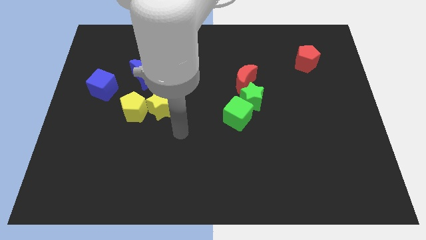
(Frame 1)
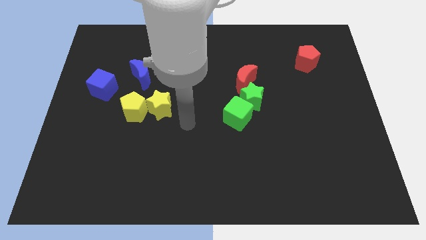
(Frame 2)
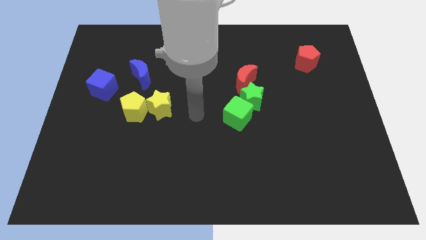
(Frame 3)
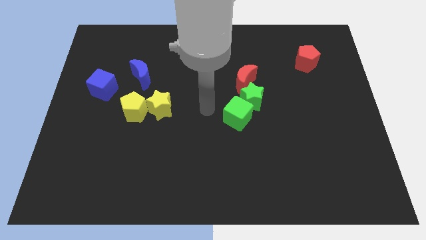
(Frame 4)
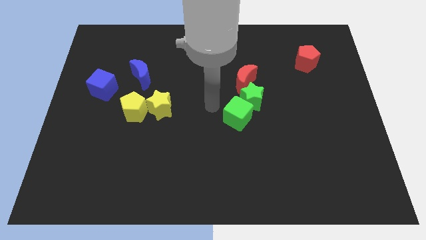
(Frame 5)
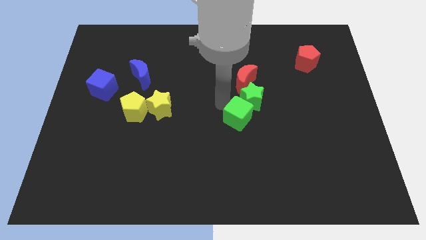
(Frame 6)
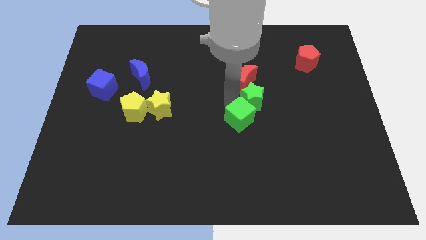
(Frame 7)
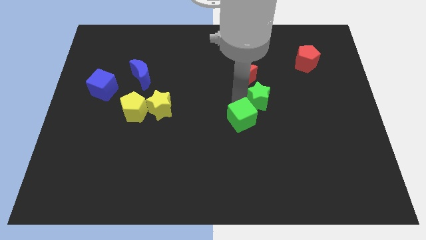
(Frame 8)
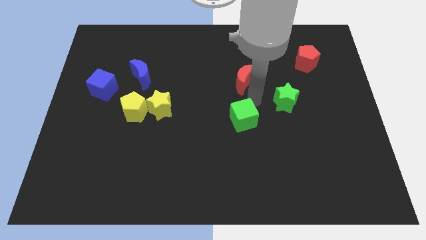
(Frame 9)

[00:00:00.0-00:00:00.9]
separate the green cube from the green star

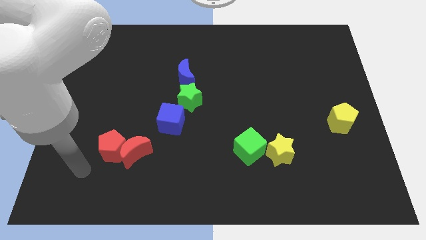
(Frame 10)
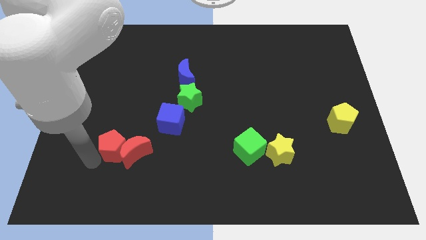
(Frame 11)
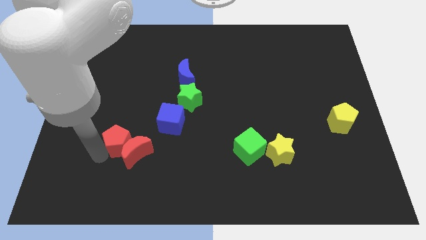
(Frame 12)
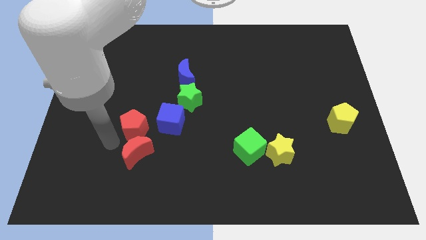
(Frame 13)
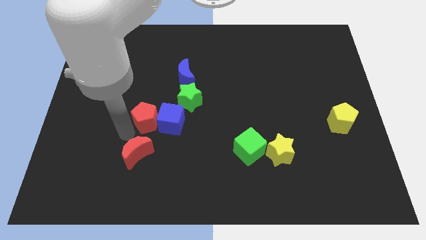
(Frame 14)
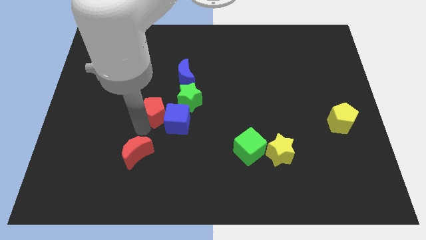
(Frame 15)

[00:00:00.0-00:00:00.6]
pull the red moon apart from the red pentagon

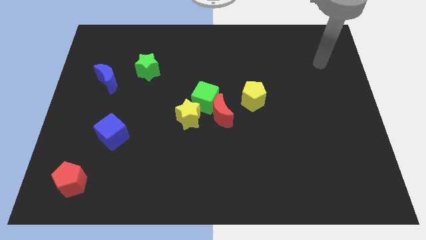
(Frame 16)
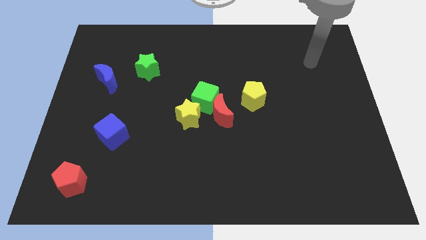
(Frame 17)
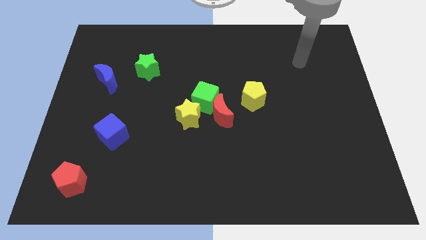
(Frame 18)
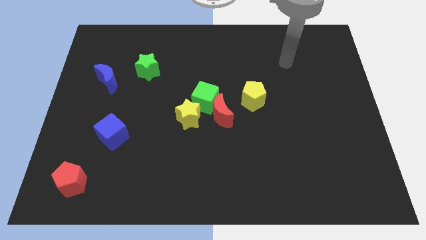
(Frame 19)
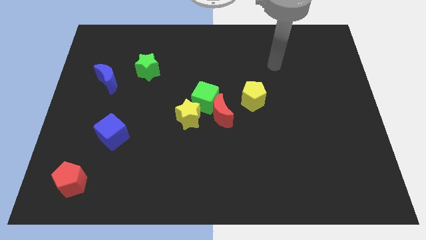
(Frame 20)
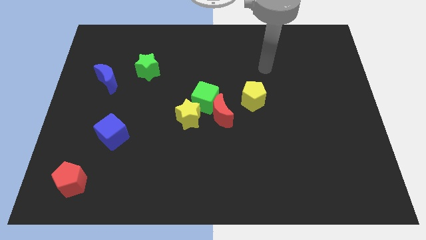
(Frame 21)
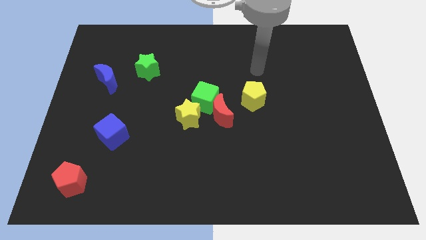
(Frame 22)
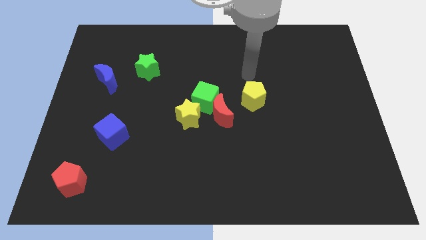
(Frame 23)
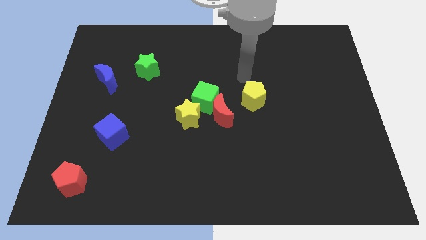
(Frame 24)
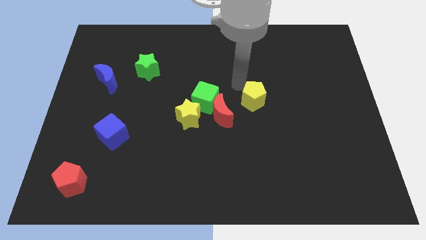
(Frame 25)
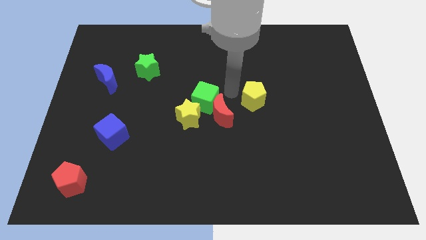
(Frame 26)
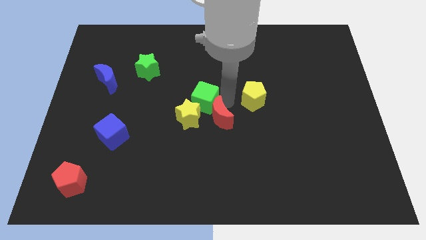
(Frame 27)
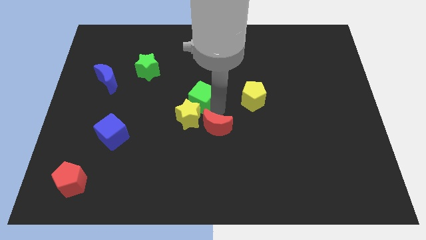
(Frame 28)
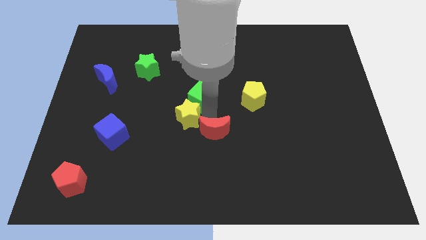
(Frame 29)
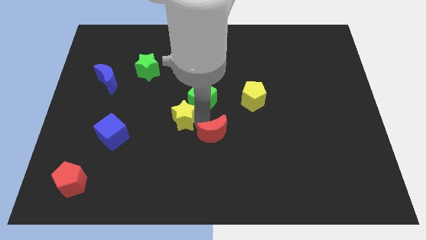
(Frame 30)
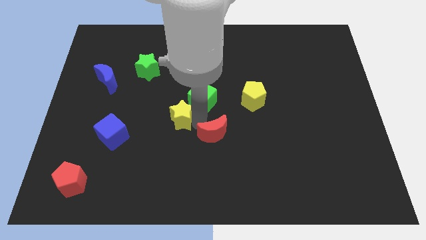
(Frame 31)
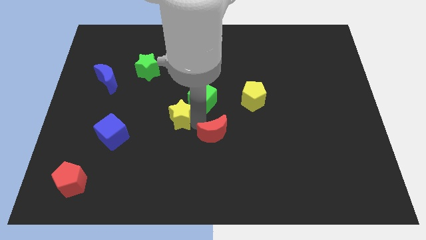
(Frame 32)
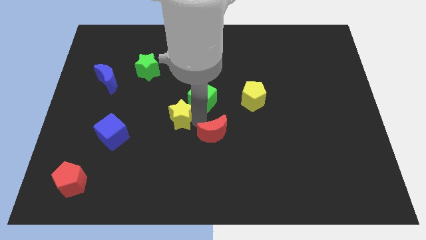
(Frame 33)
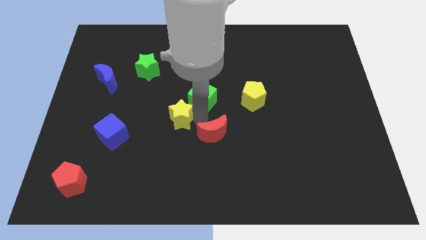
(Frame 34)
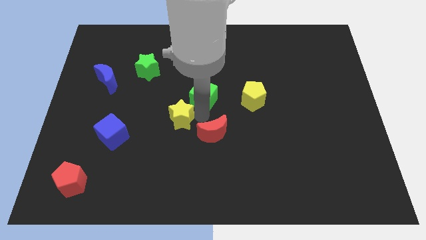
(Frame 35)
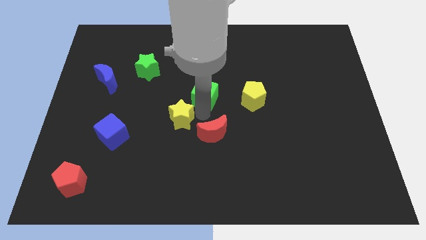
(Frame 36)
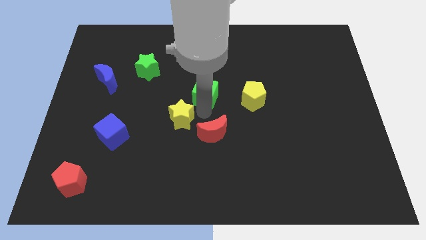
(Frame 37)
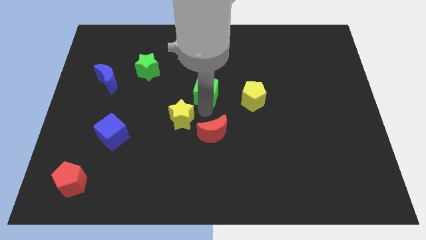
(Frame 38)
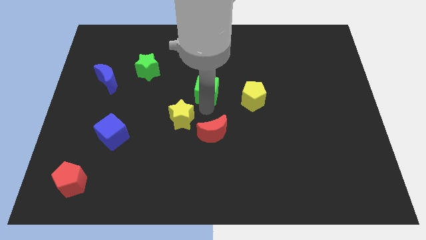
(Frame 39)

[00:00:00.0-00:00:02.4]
separate the green cube from the red moon and yellow star

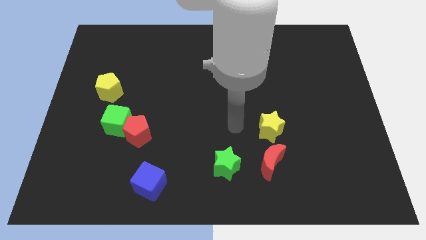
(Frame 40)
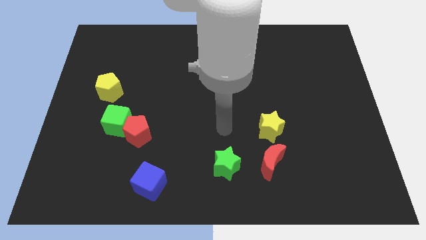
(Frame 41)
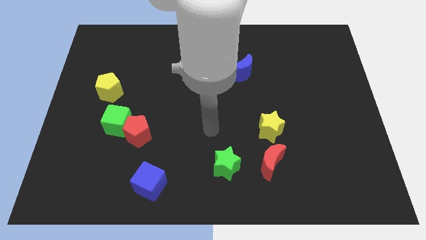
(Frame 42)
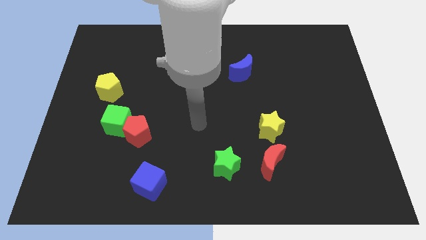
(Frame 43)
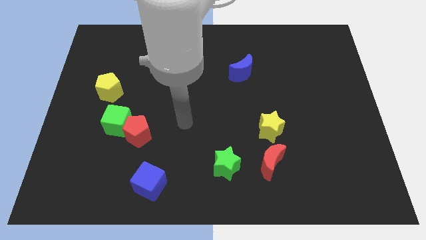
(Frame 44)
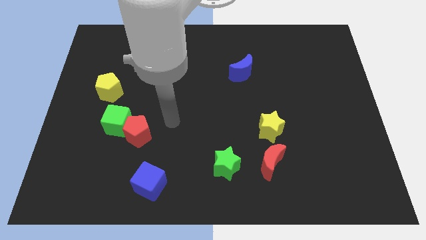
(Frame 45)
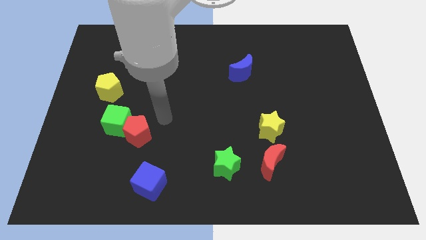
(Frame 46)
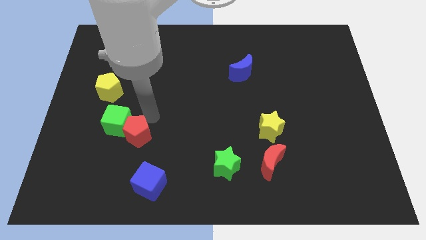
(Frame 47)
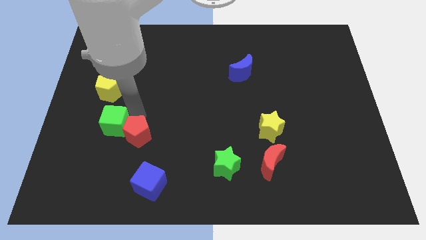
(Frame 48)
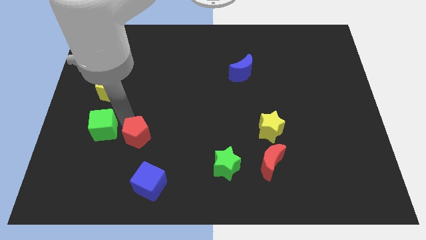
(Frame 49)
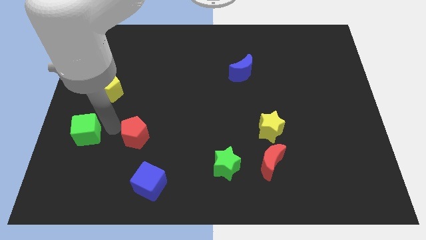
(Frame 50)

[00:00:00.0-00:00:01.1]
separate the red pentagon from the green cube

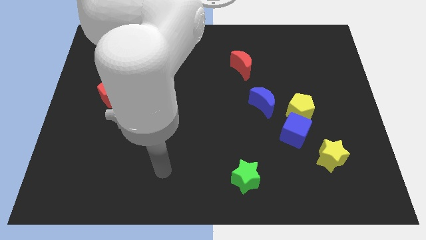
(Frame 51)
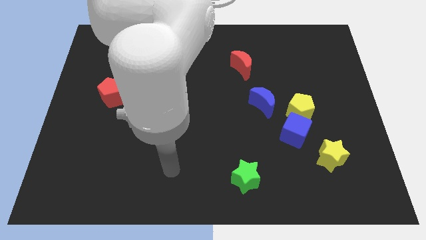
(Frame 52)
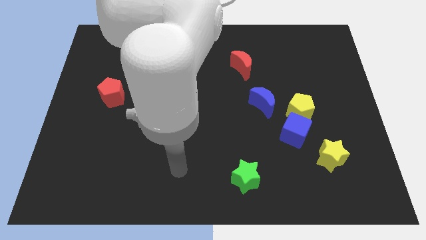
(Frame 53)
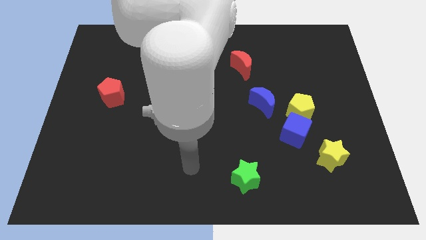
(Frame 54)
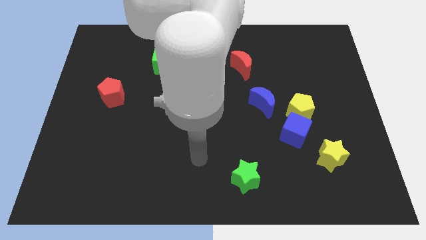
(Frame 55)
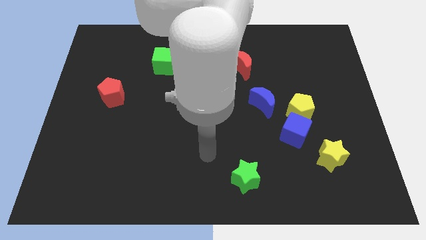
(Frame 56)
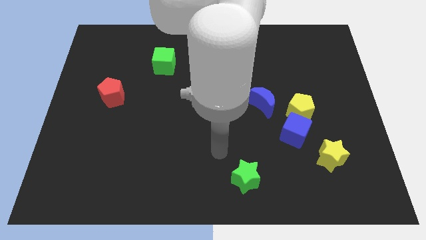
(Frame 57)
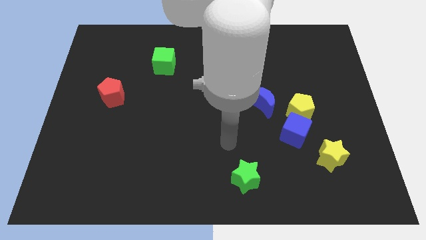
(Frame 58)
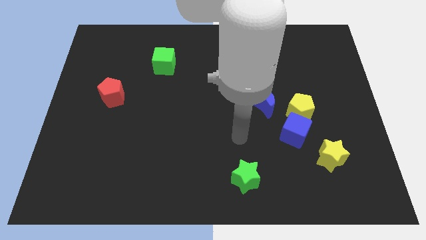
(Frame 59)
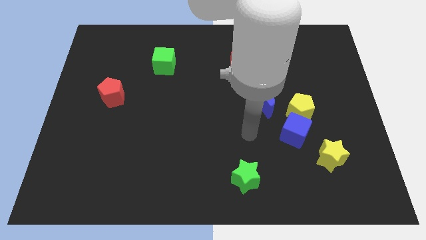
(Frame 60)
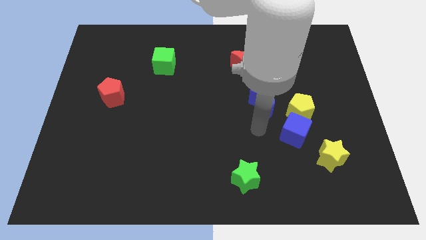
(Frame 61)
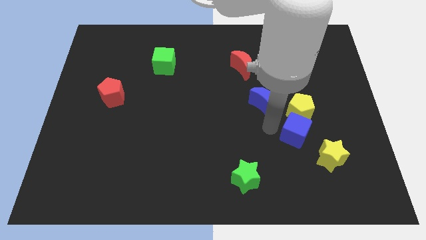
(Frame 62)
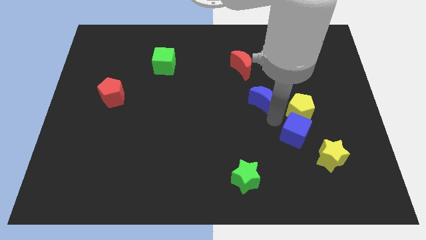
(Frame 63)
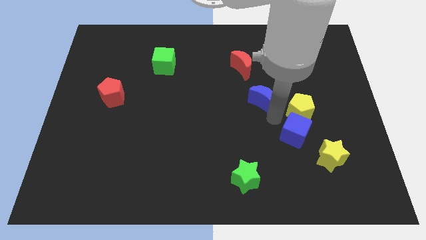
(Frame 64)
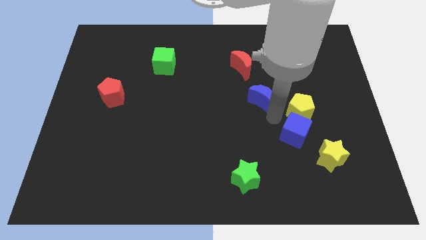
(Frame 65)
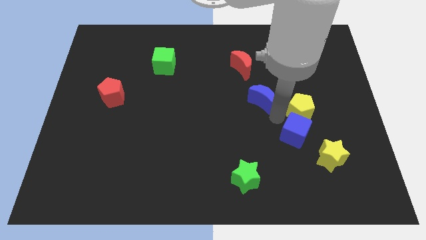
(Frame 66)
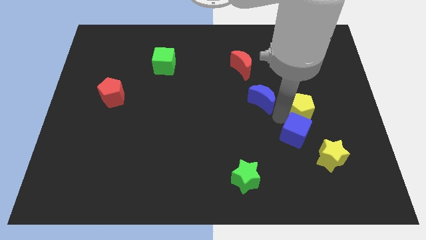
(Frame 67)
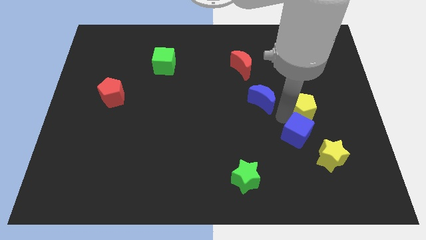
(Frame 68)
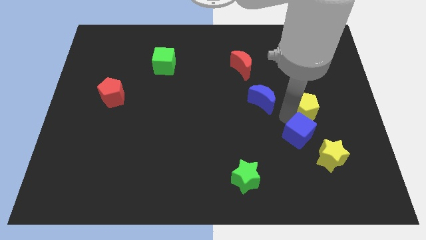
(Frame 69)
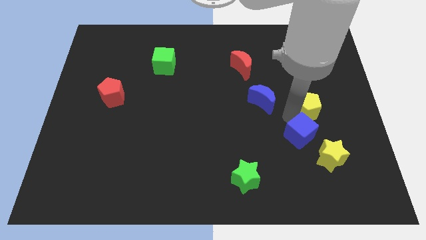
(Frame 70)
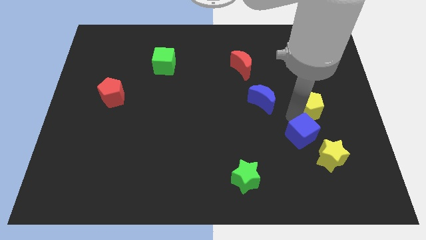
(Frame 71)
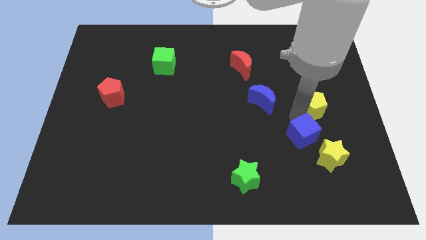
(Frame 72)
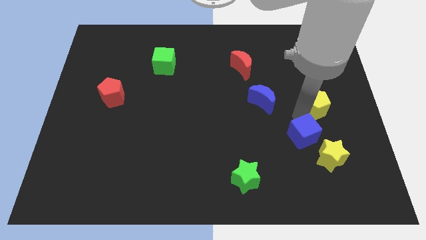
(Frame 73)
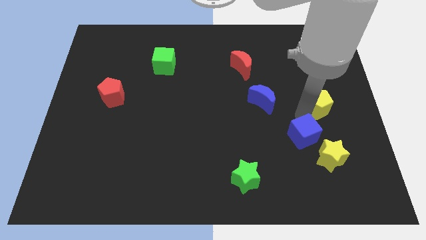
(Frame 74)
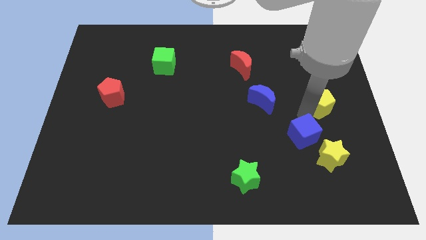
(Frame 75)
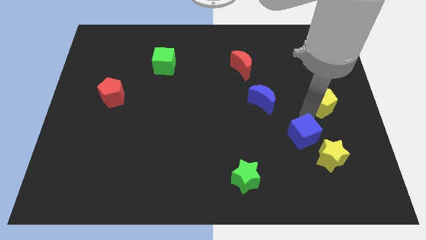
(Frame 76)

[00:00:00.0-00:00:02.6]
move the yellow pentagon away from the blue cube and blue moon

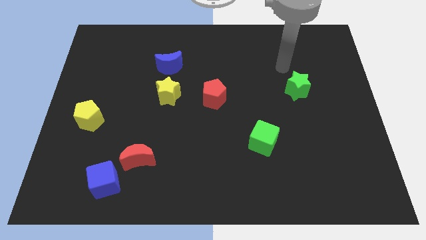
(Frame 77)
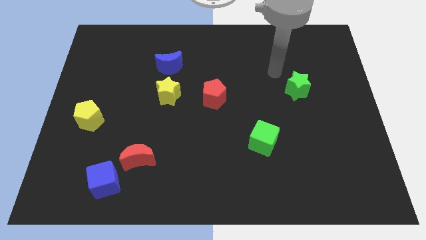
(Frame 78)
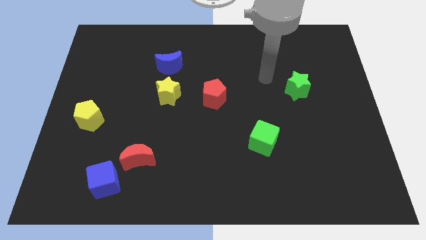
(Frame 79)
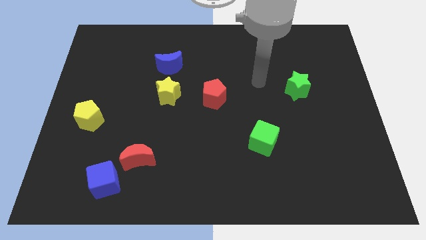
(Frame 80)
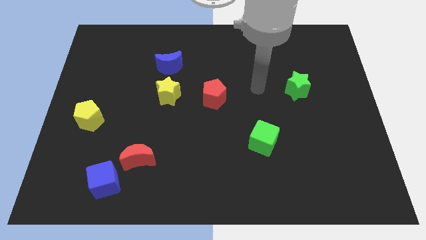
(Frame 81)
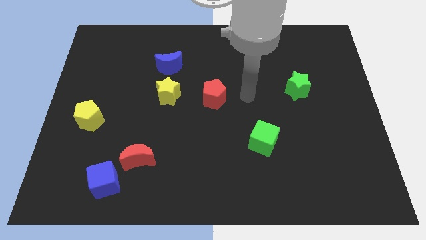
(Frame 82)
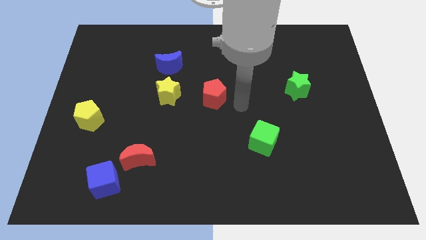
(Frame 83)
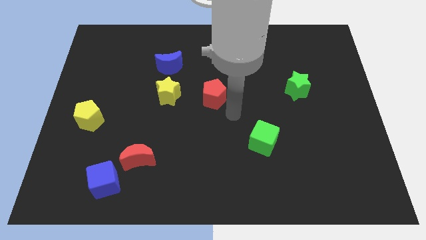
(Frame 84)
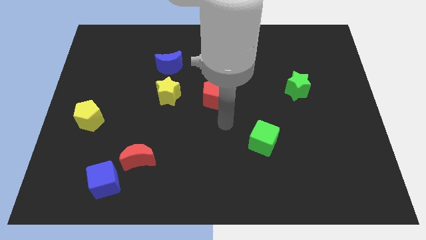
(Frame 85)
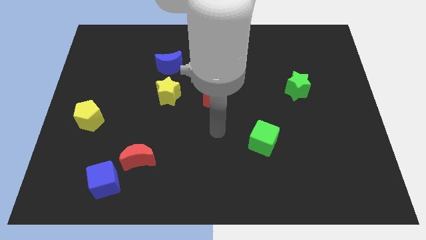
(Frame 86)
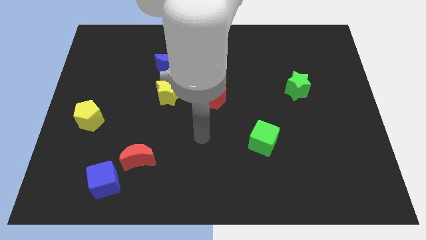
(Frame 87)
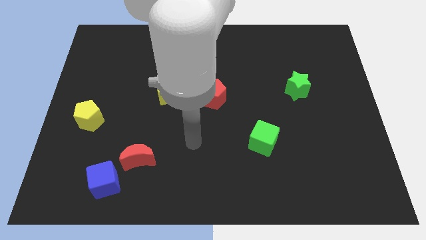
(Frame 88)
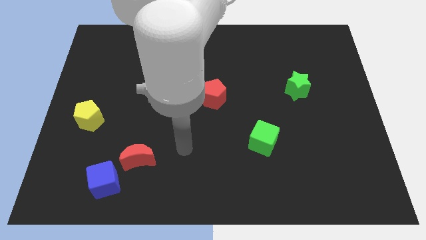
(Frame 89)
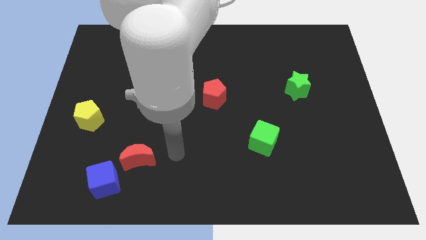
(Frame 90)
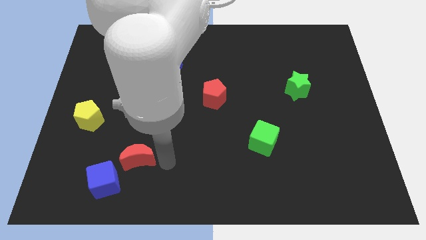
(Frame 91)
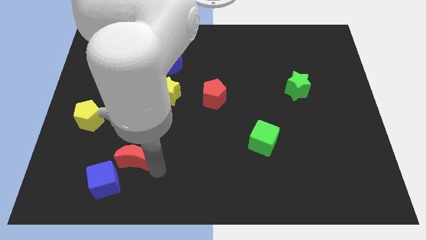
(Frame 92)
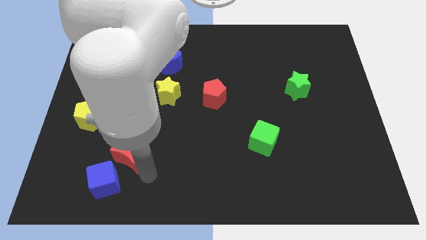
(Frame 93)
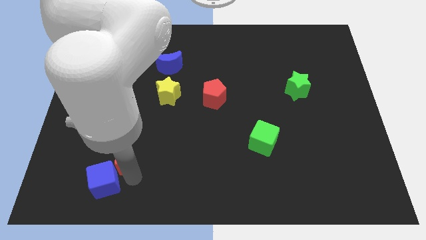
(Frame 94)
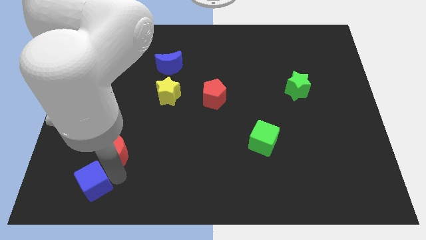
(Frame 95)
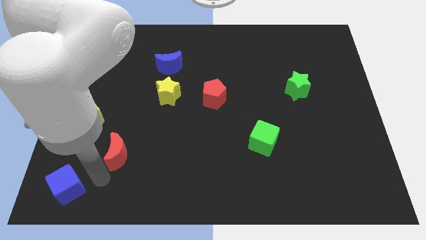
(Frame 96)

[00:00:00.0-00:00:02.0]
separate the red moon from the blue cube
